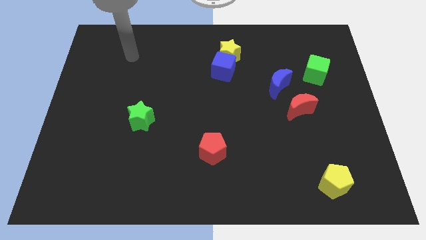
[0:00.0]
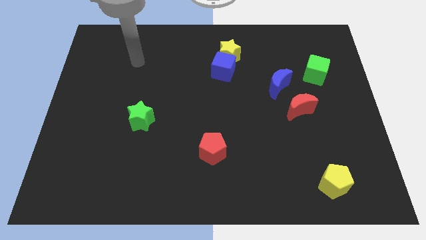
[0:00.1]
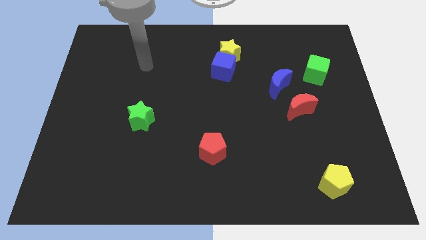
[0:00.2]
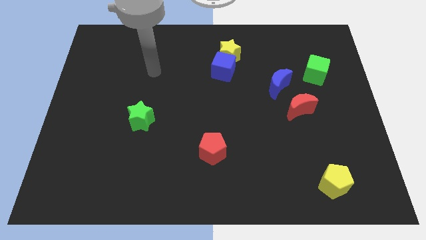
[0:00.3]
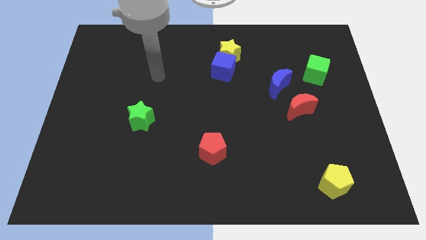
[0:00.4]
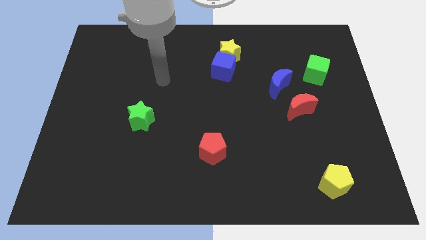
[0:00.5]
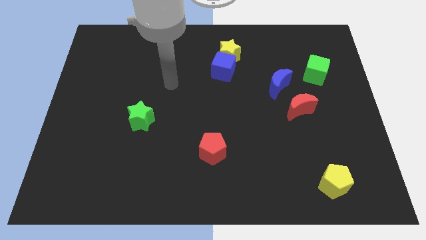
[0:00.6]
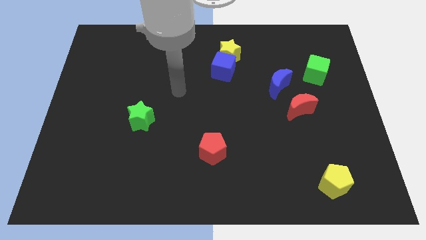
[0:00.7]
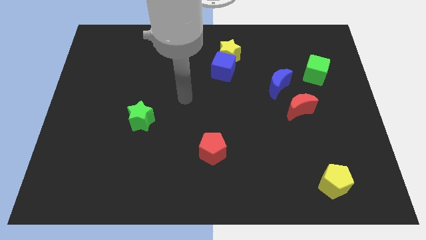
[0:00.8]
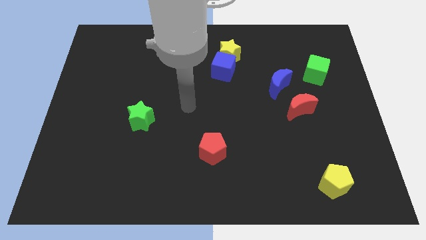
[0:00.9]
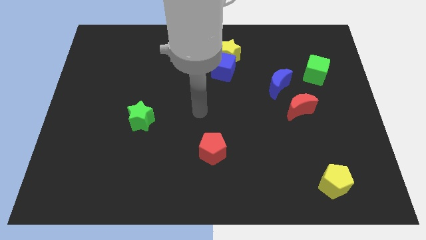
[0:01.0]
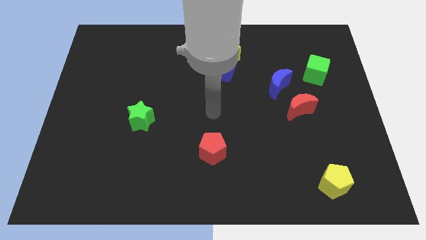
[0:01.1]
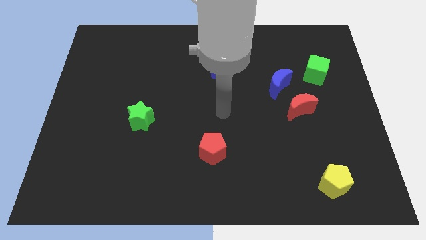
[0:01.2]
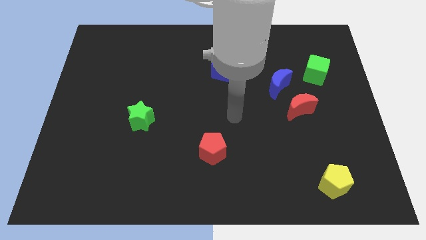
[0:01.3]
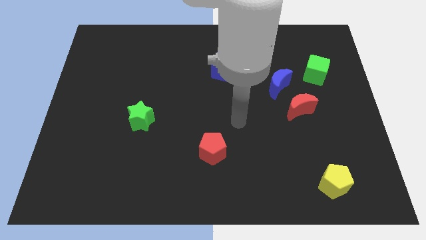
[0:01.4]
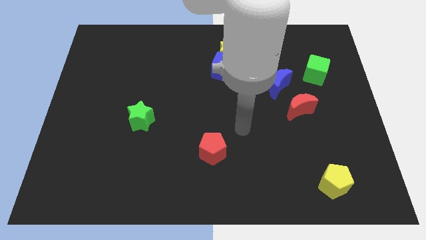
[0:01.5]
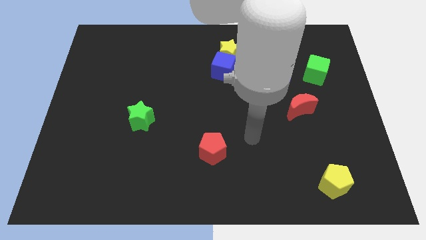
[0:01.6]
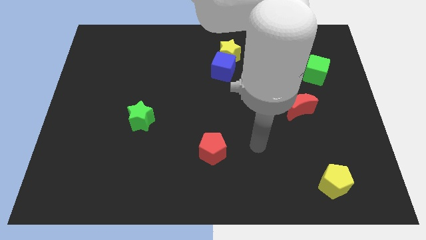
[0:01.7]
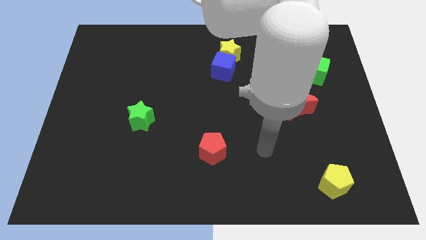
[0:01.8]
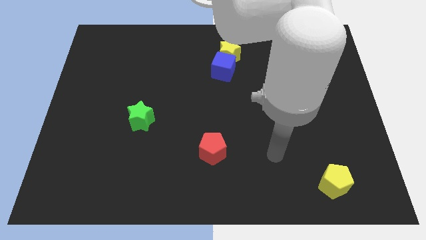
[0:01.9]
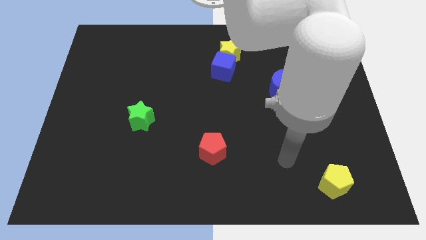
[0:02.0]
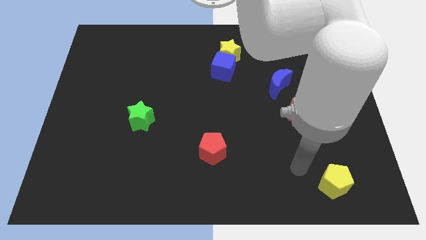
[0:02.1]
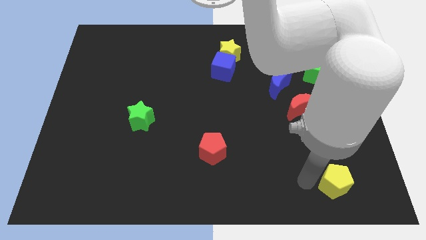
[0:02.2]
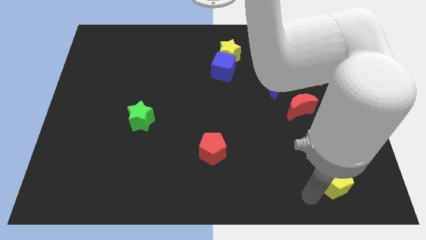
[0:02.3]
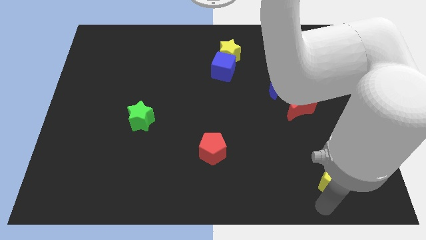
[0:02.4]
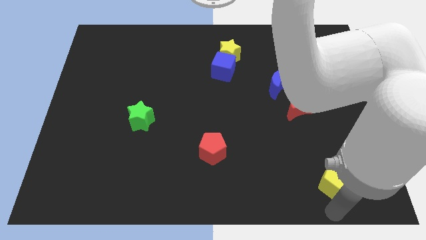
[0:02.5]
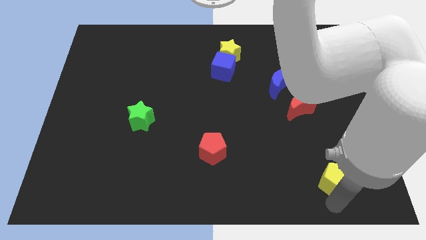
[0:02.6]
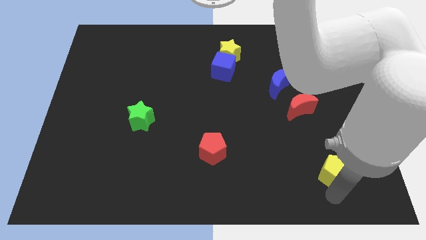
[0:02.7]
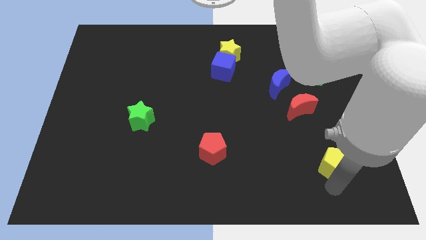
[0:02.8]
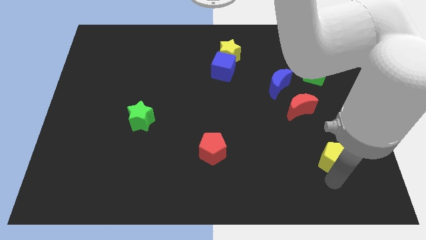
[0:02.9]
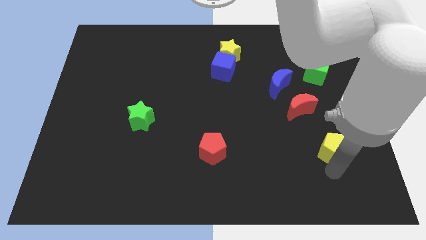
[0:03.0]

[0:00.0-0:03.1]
move the yellow pentagon a little bit up

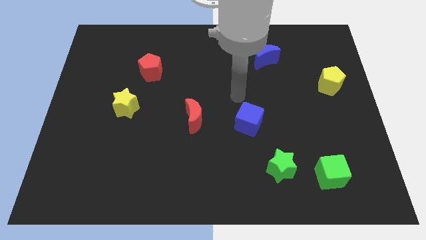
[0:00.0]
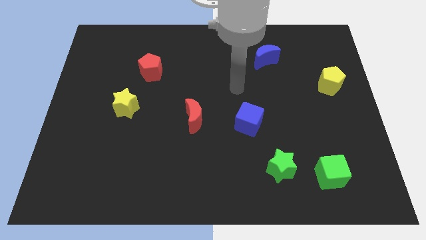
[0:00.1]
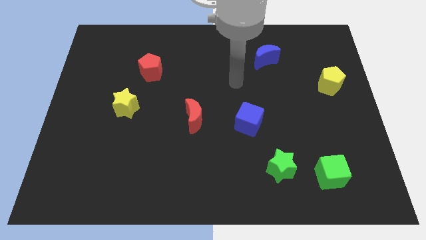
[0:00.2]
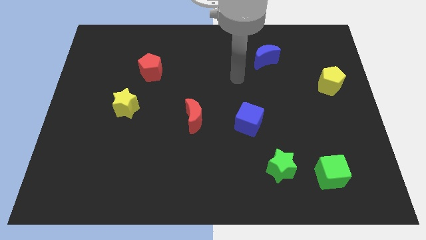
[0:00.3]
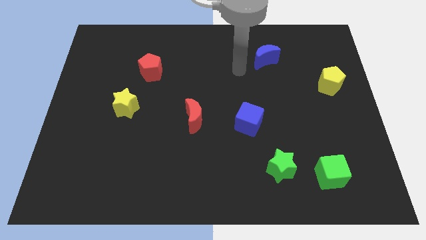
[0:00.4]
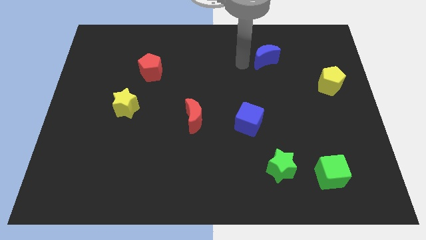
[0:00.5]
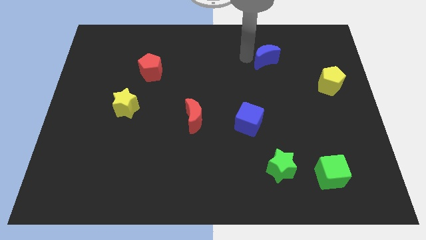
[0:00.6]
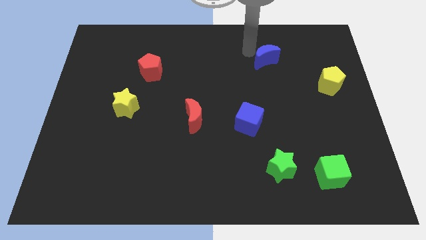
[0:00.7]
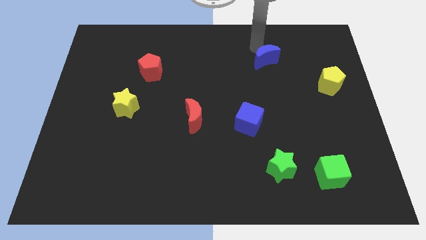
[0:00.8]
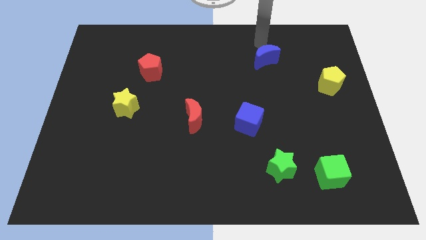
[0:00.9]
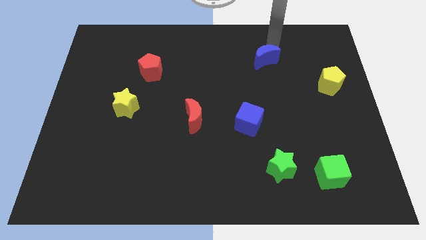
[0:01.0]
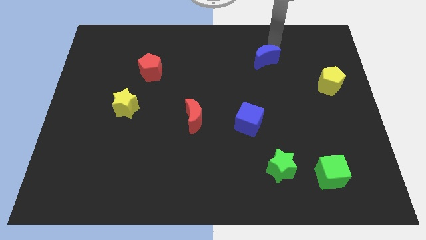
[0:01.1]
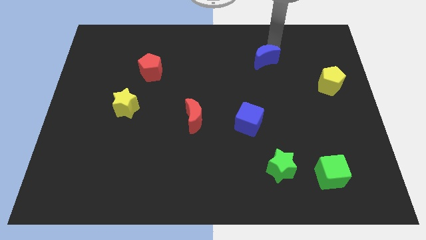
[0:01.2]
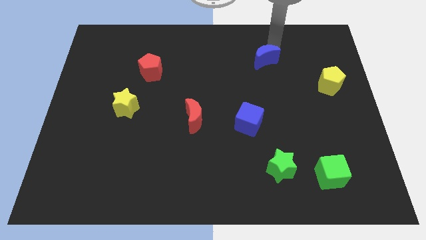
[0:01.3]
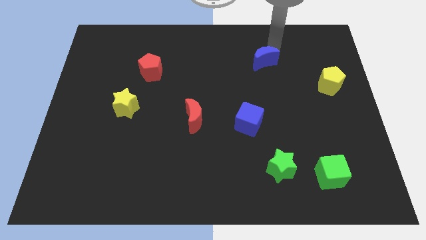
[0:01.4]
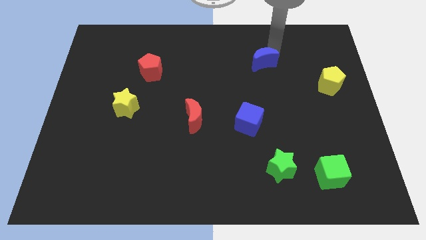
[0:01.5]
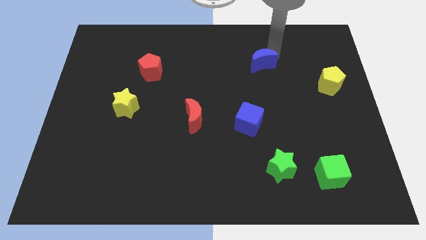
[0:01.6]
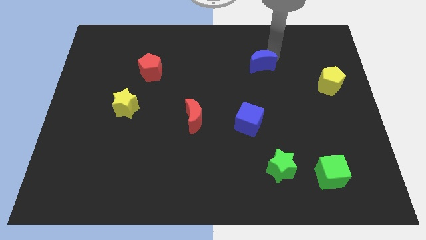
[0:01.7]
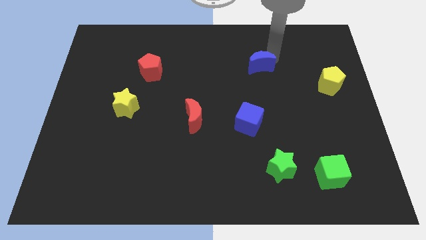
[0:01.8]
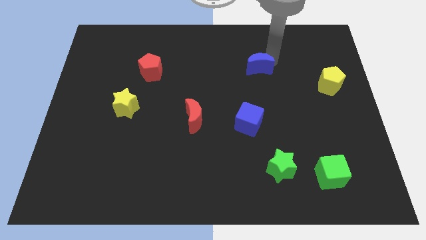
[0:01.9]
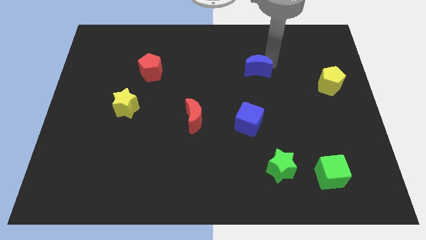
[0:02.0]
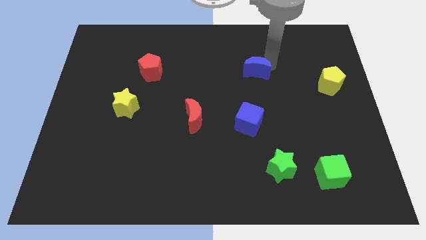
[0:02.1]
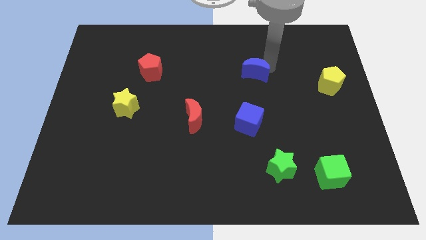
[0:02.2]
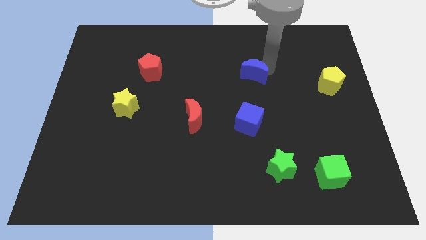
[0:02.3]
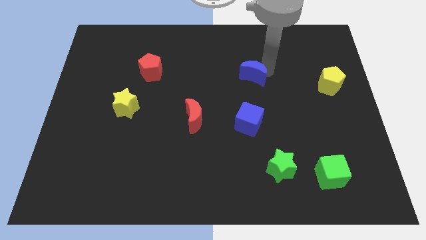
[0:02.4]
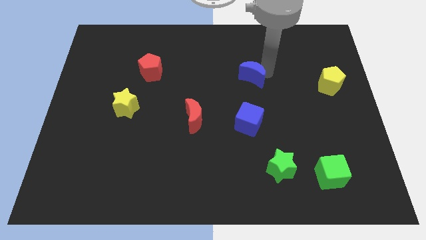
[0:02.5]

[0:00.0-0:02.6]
push the blue moon diagonally downwards and left a bit

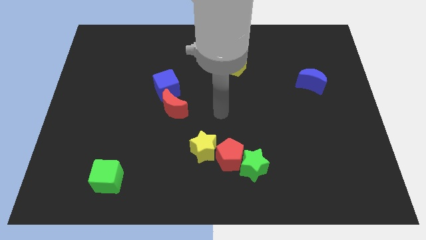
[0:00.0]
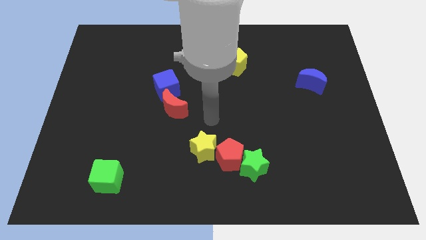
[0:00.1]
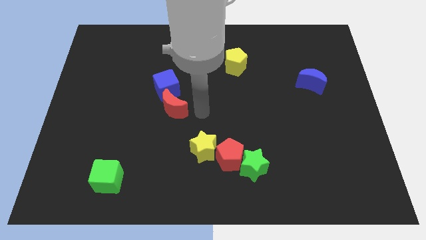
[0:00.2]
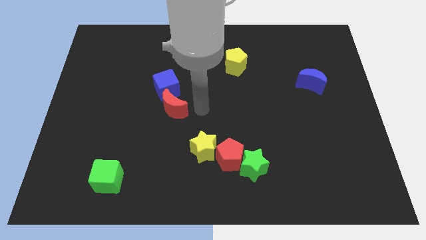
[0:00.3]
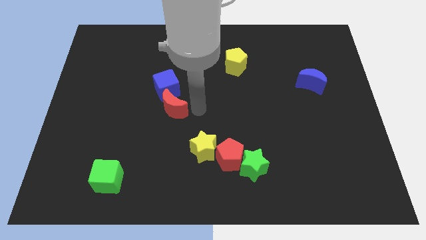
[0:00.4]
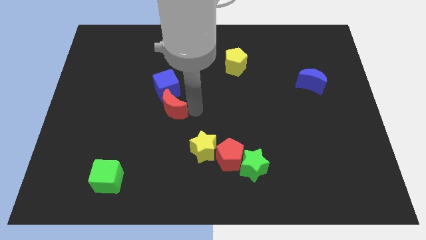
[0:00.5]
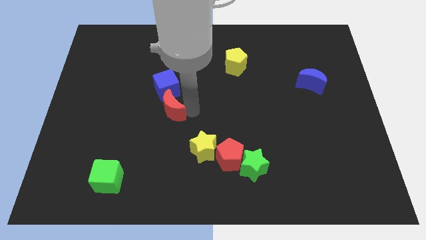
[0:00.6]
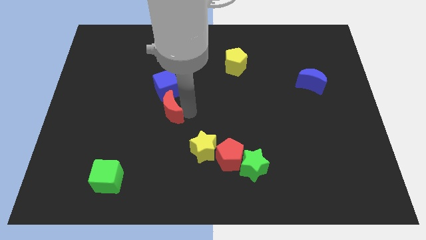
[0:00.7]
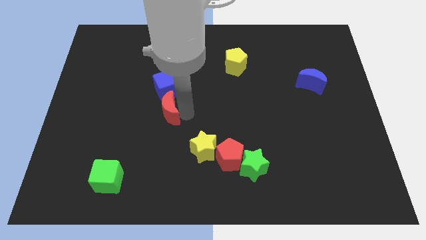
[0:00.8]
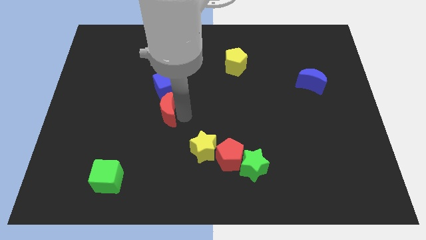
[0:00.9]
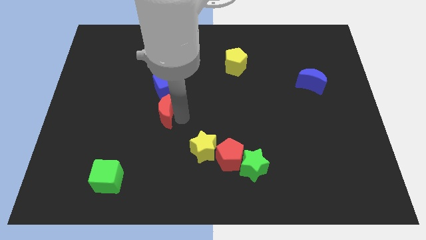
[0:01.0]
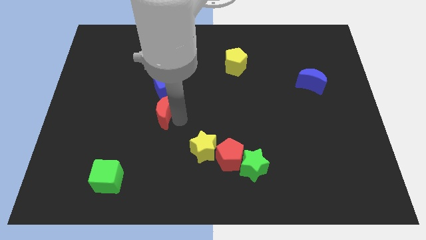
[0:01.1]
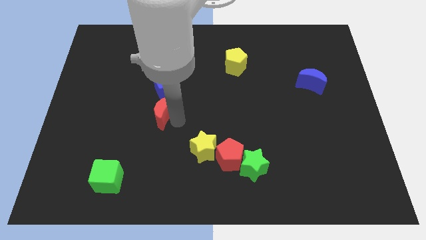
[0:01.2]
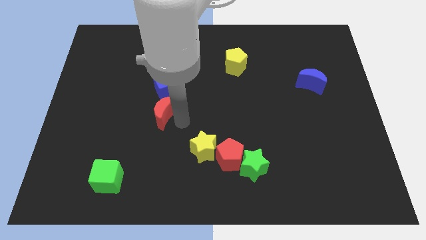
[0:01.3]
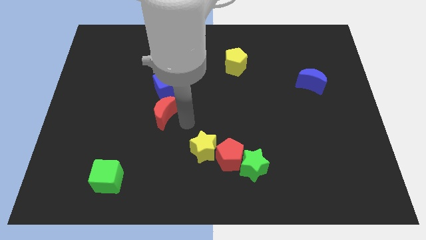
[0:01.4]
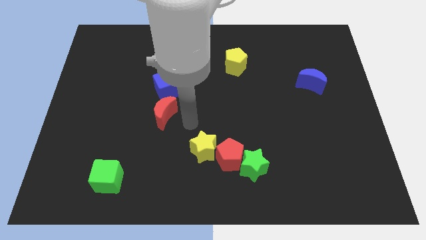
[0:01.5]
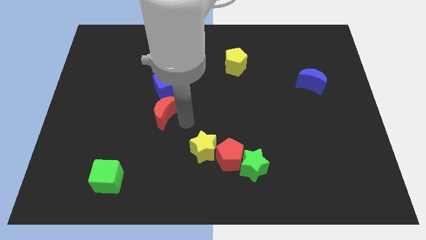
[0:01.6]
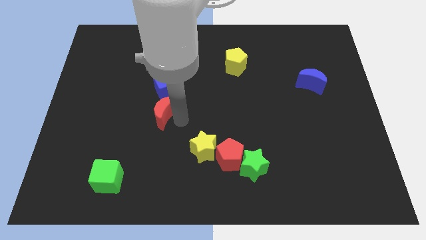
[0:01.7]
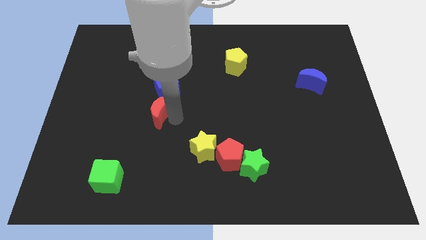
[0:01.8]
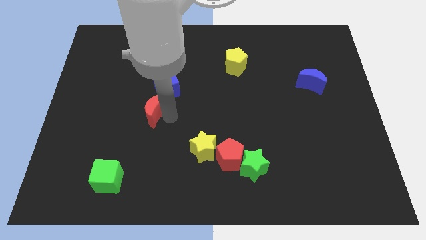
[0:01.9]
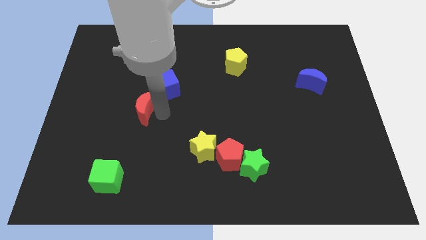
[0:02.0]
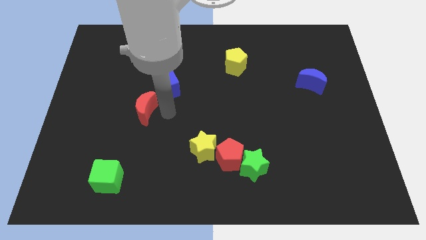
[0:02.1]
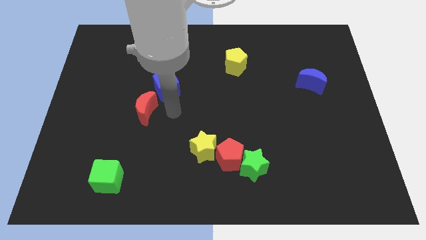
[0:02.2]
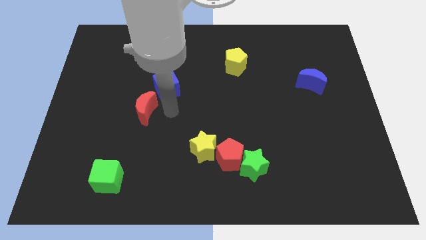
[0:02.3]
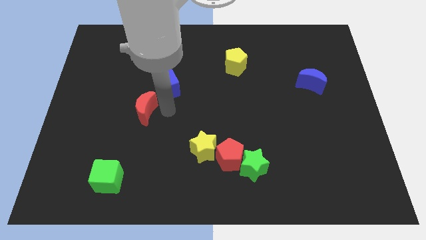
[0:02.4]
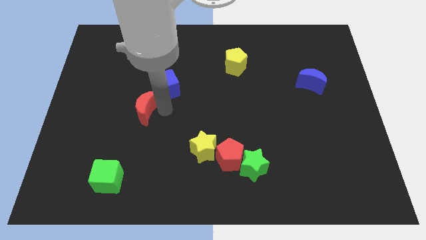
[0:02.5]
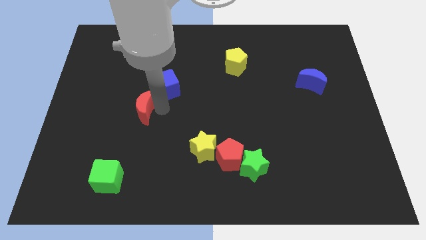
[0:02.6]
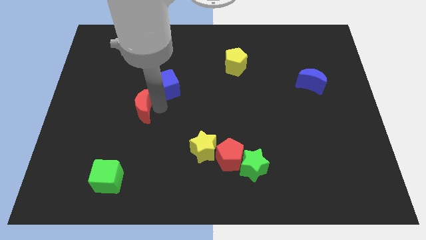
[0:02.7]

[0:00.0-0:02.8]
slightly move the red moon left
